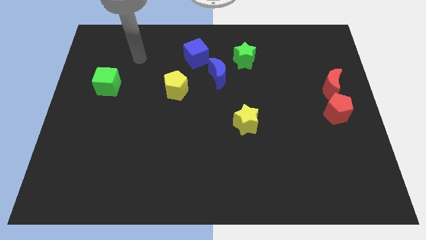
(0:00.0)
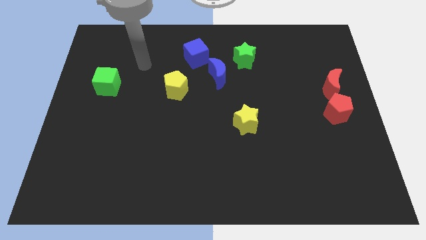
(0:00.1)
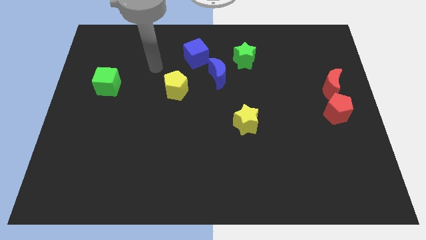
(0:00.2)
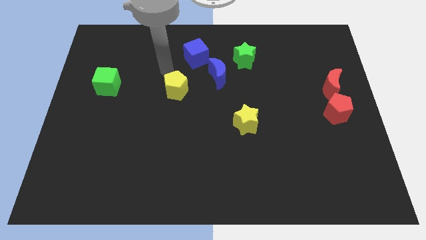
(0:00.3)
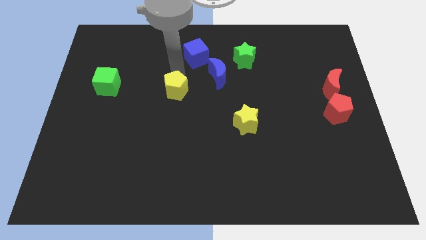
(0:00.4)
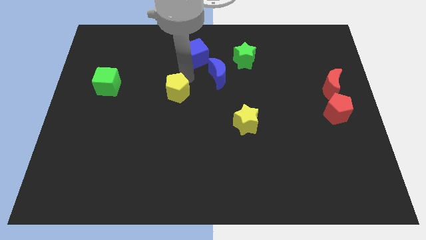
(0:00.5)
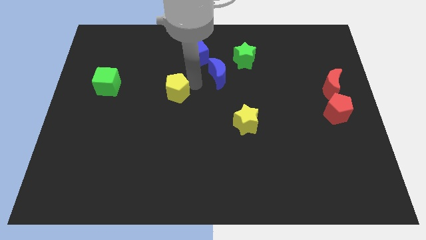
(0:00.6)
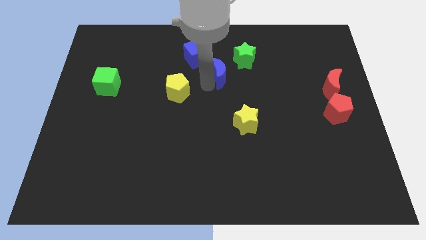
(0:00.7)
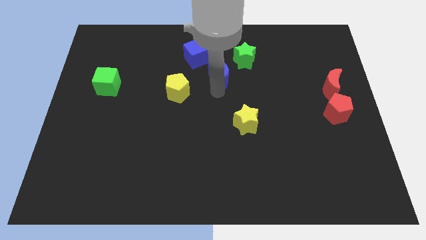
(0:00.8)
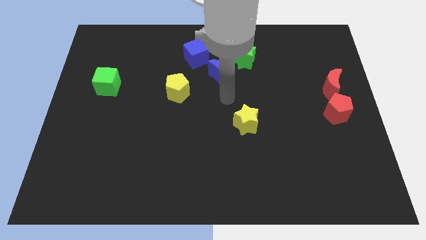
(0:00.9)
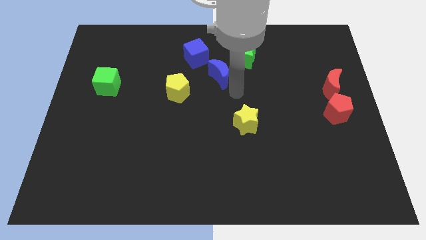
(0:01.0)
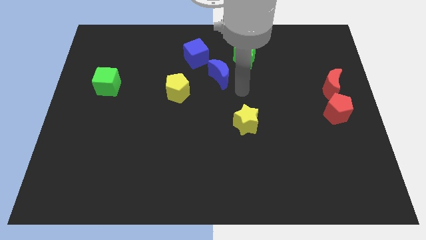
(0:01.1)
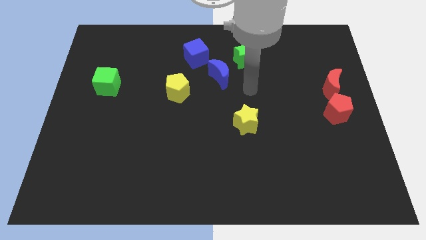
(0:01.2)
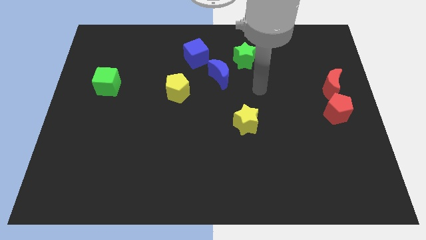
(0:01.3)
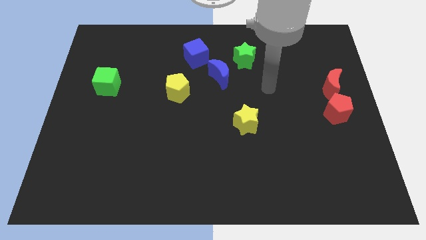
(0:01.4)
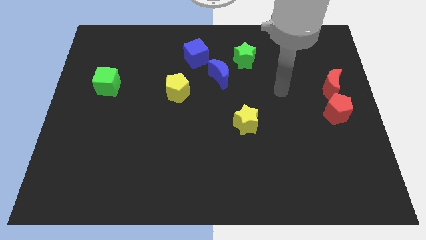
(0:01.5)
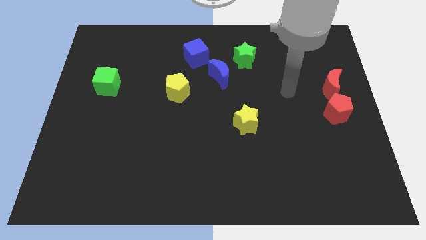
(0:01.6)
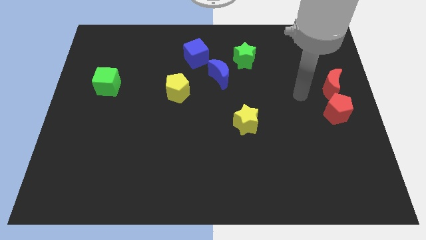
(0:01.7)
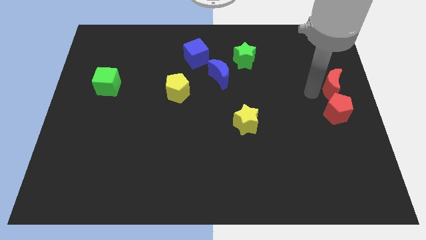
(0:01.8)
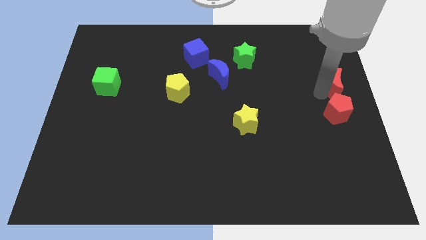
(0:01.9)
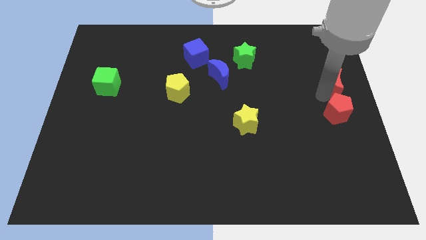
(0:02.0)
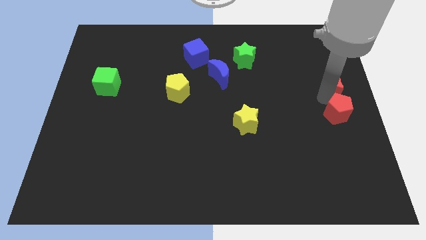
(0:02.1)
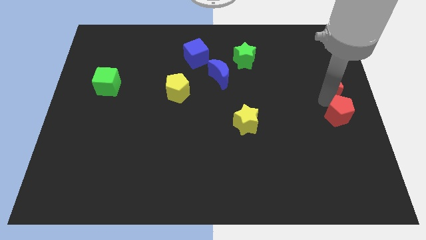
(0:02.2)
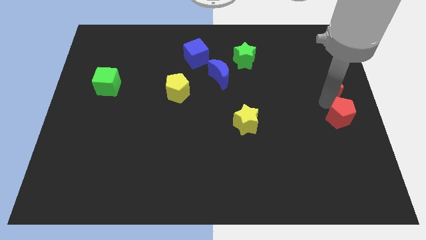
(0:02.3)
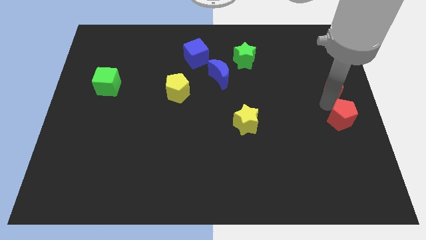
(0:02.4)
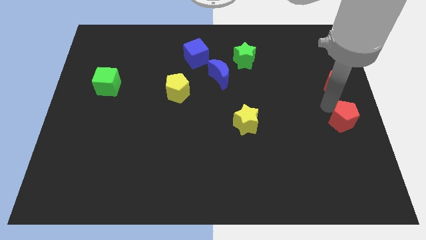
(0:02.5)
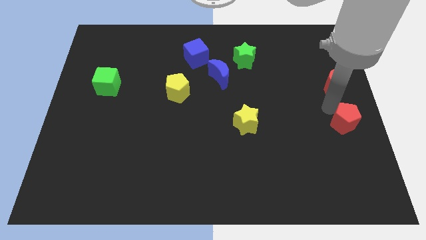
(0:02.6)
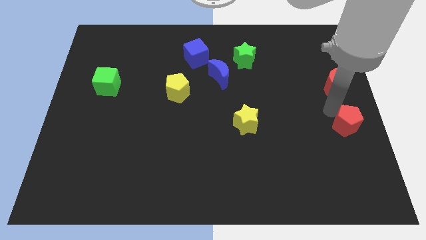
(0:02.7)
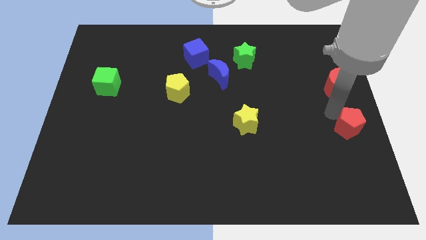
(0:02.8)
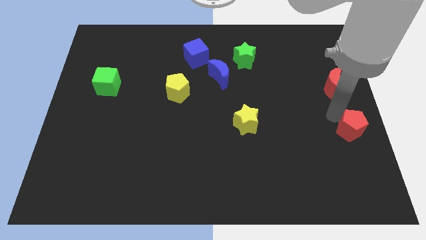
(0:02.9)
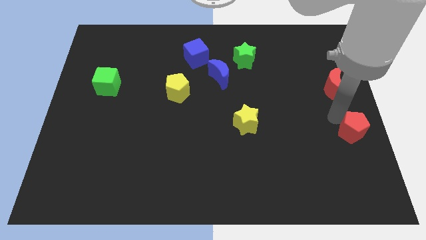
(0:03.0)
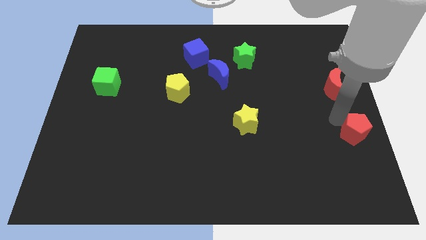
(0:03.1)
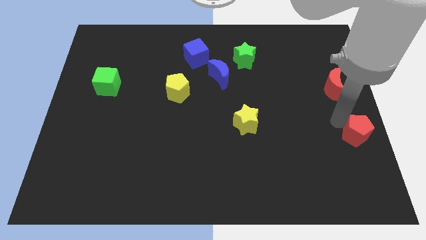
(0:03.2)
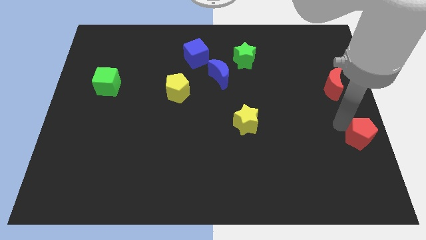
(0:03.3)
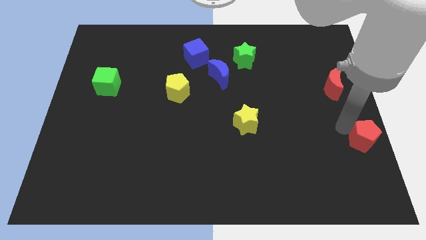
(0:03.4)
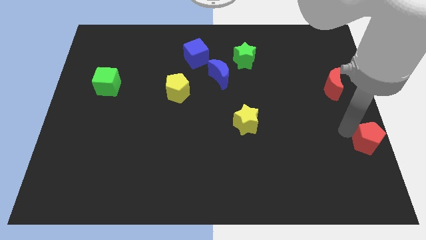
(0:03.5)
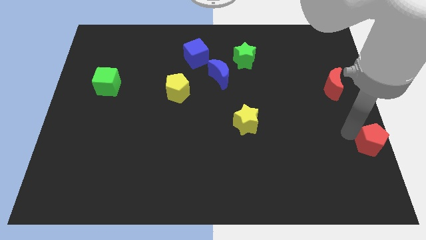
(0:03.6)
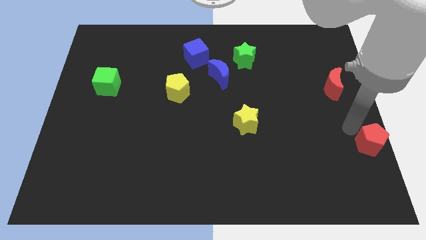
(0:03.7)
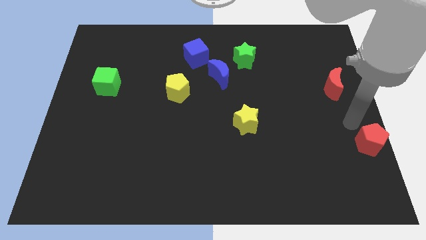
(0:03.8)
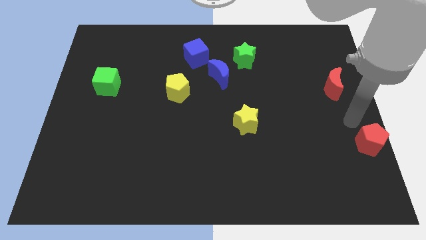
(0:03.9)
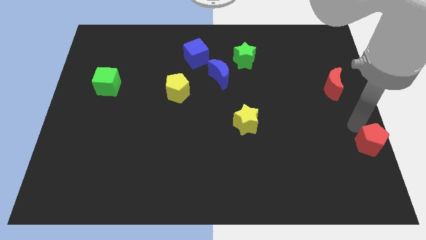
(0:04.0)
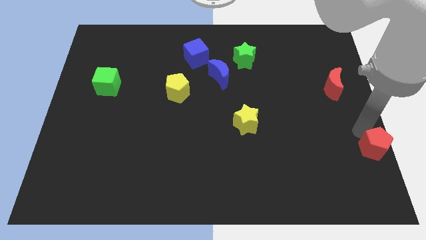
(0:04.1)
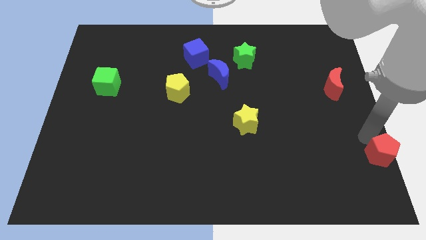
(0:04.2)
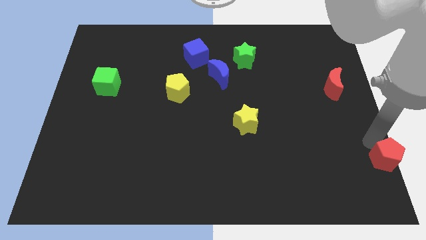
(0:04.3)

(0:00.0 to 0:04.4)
slide the red pentagon to the bottom right

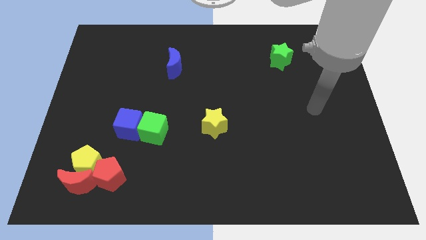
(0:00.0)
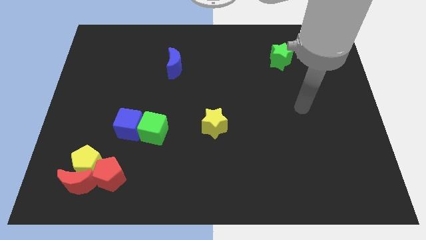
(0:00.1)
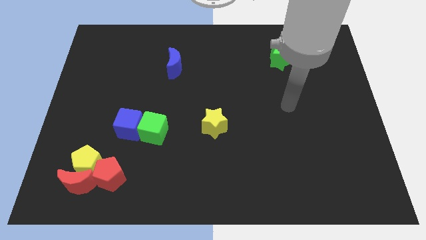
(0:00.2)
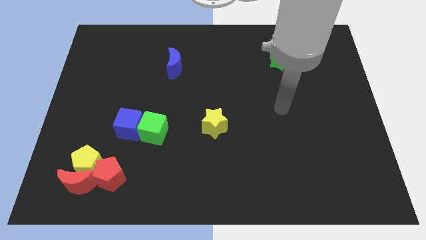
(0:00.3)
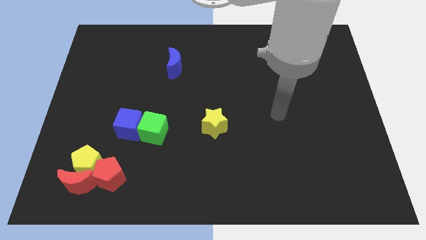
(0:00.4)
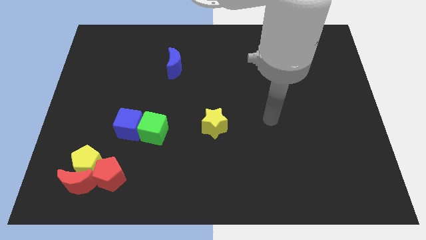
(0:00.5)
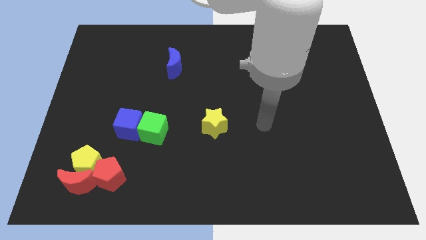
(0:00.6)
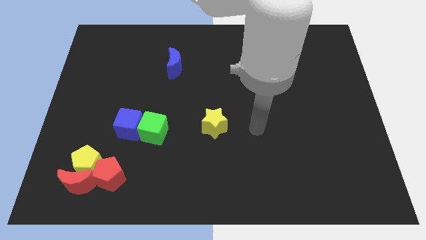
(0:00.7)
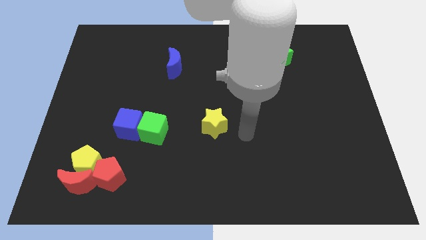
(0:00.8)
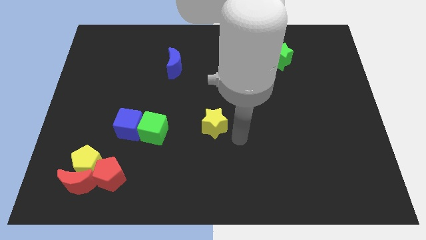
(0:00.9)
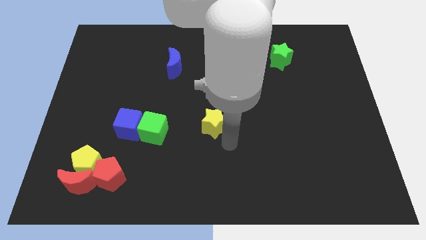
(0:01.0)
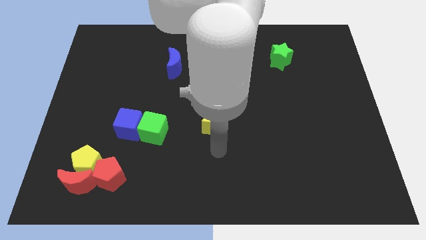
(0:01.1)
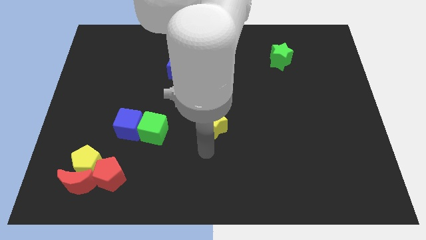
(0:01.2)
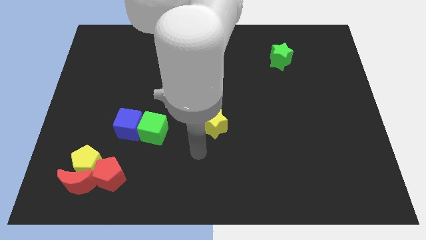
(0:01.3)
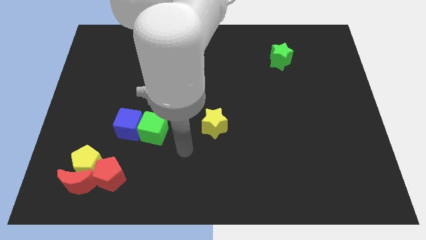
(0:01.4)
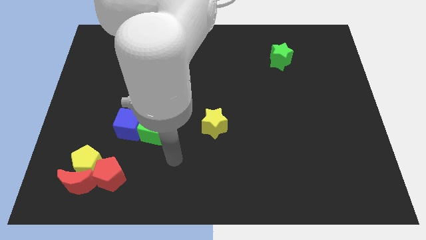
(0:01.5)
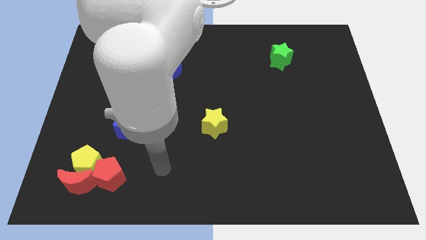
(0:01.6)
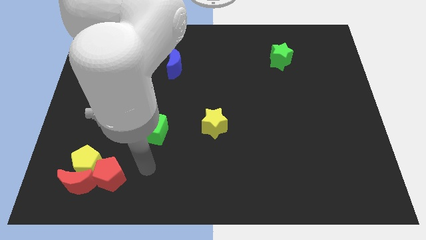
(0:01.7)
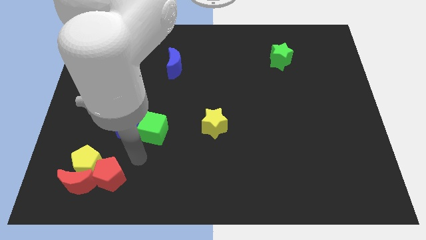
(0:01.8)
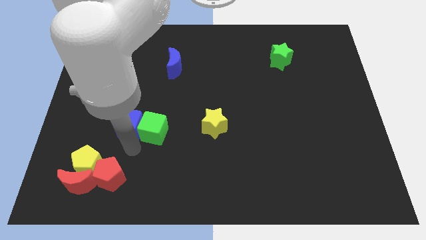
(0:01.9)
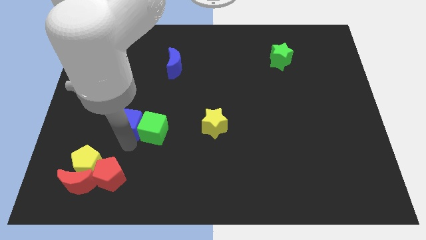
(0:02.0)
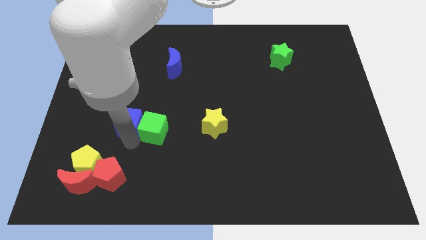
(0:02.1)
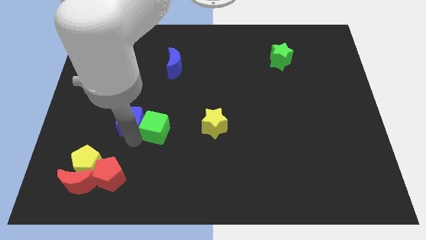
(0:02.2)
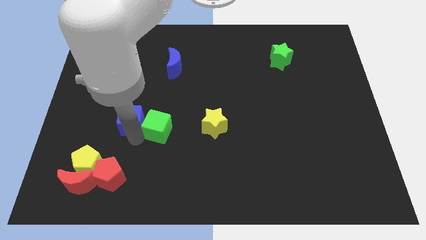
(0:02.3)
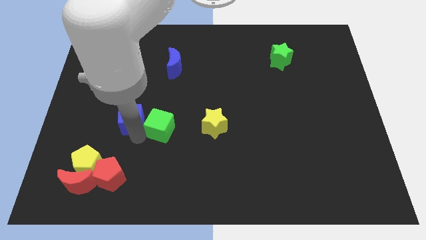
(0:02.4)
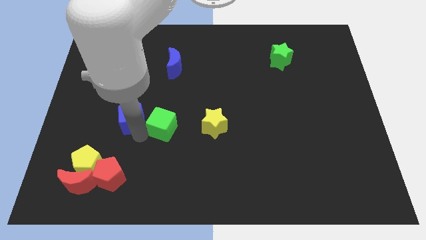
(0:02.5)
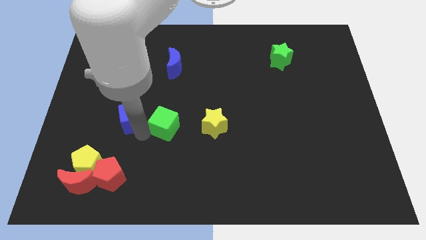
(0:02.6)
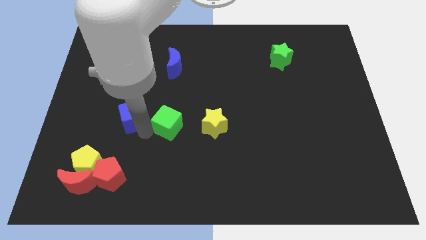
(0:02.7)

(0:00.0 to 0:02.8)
move the green cube to the middle

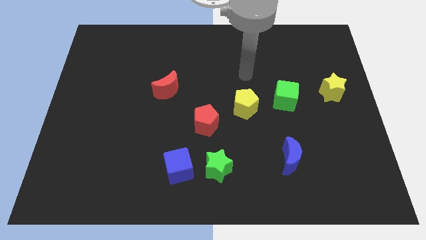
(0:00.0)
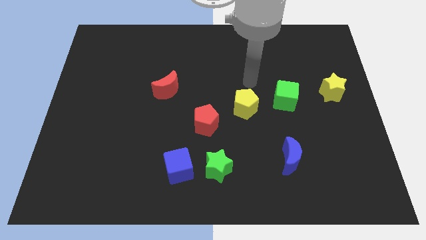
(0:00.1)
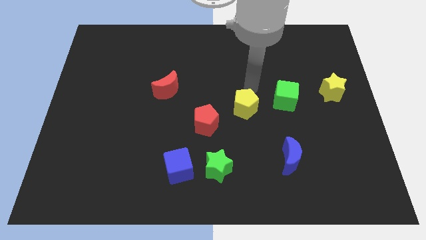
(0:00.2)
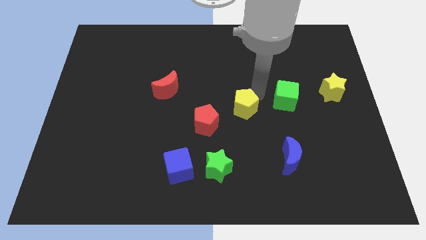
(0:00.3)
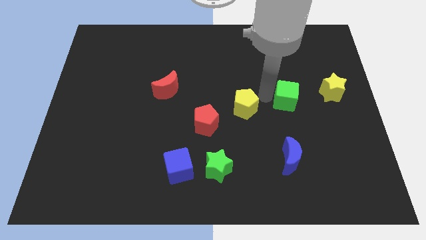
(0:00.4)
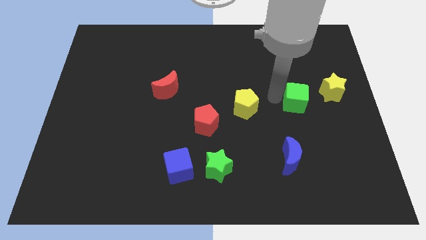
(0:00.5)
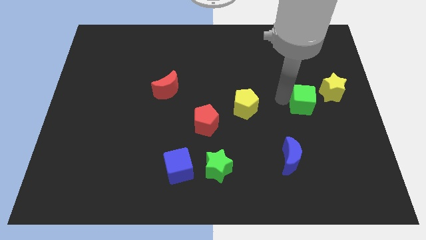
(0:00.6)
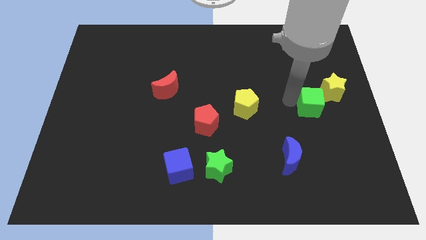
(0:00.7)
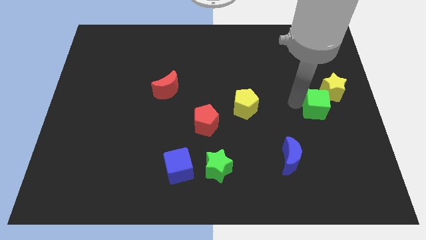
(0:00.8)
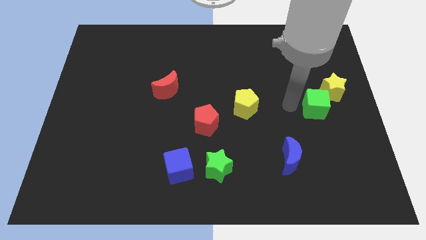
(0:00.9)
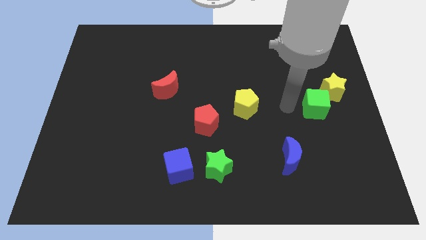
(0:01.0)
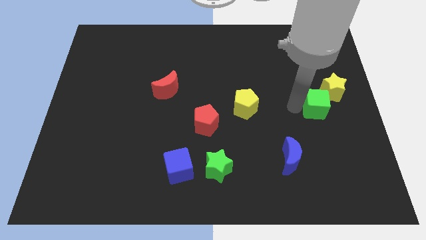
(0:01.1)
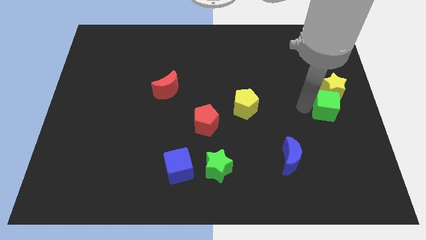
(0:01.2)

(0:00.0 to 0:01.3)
slide the green cube to the center right
